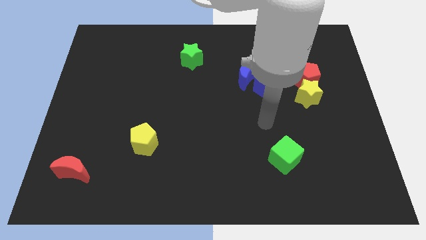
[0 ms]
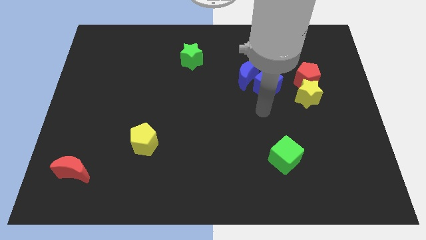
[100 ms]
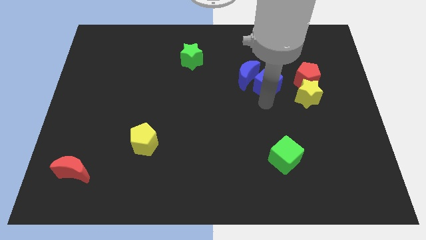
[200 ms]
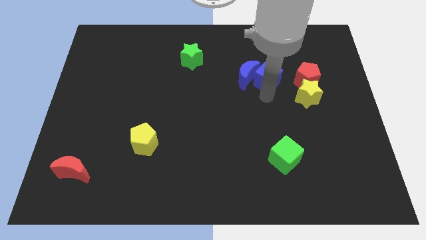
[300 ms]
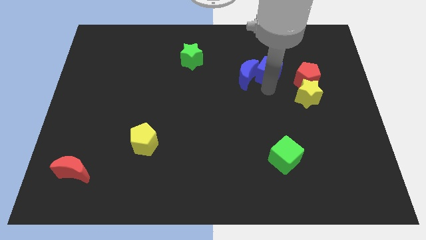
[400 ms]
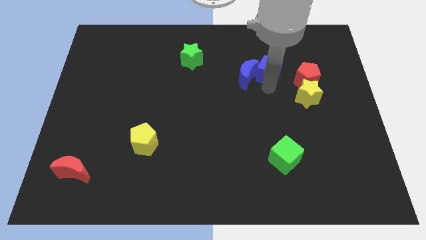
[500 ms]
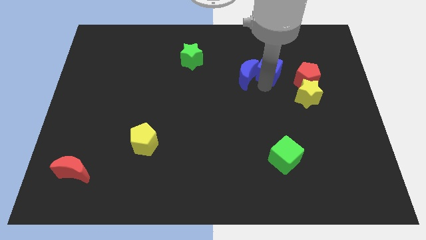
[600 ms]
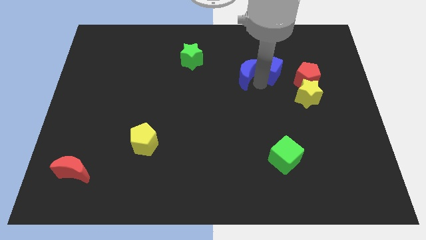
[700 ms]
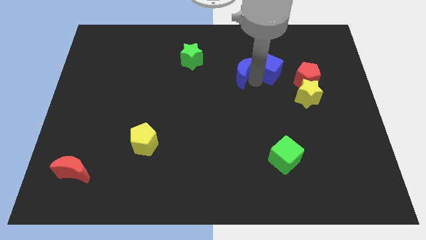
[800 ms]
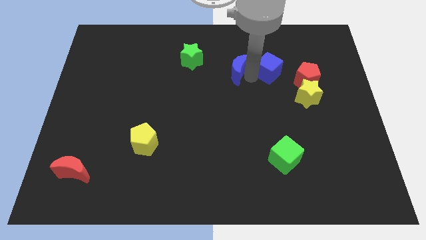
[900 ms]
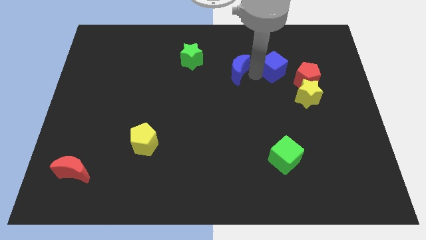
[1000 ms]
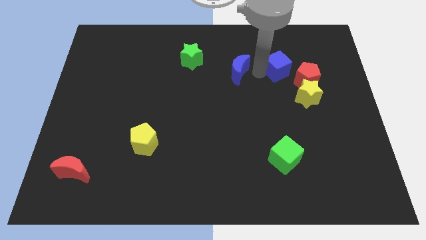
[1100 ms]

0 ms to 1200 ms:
move the blue moon away from the blue cube

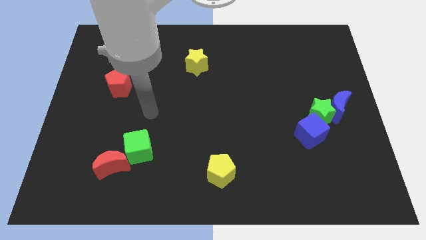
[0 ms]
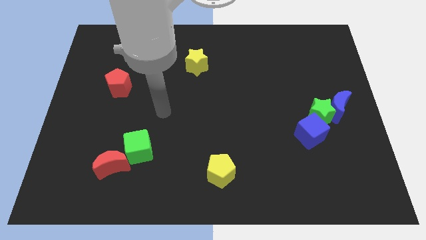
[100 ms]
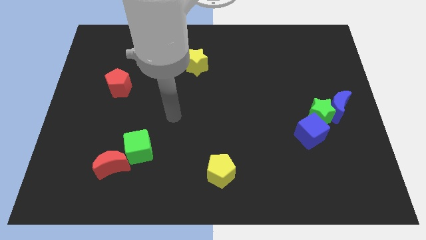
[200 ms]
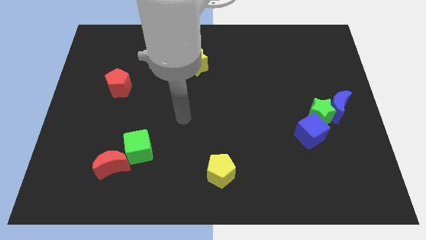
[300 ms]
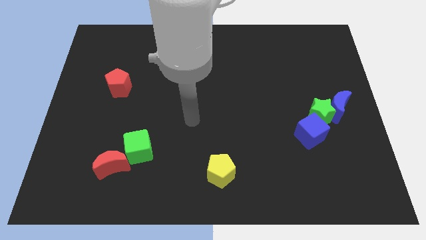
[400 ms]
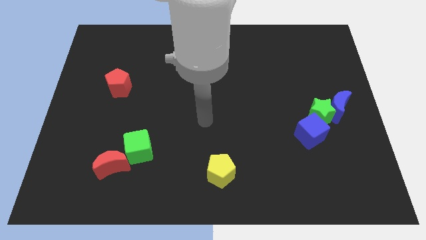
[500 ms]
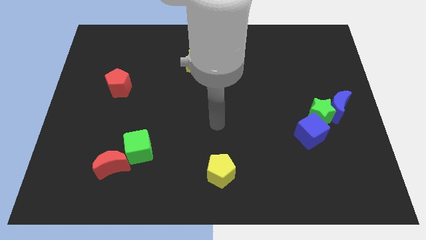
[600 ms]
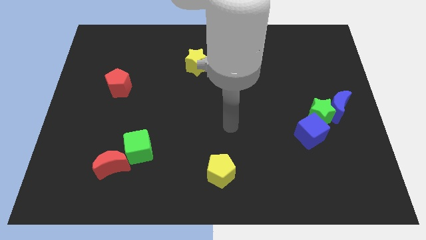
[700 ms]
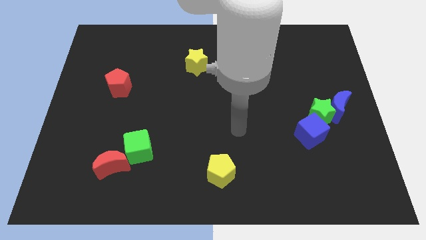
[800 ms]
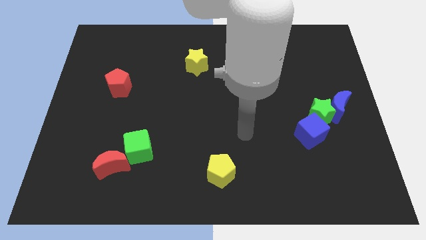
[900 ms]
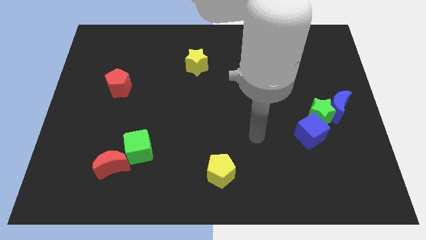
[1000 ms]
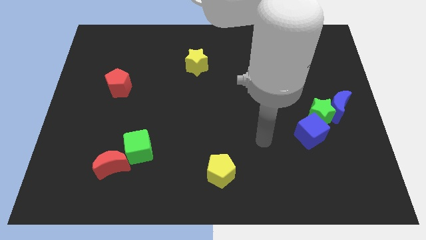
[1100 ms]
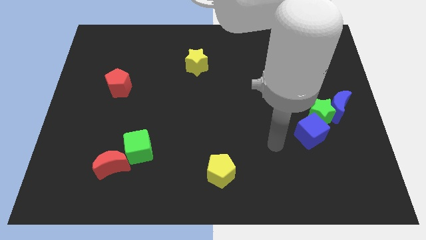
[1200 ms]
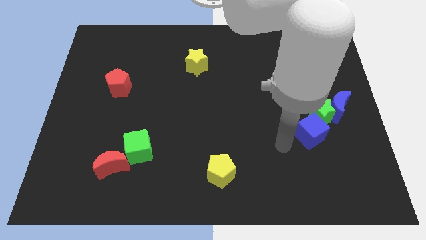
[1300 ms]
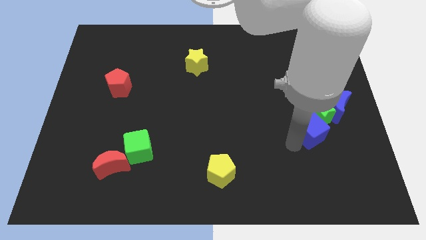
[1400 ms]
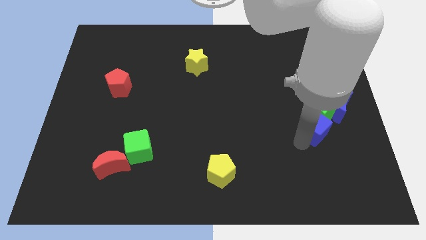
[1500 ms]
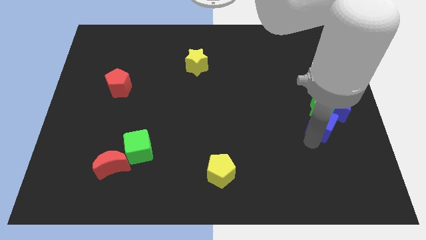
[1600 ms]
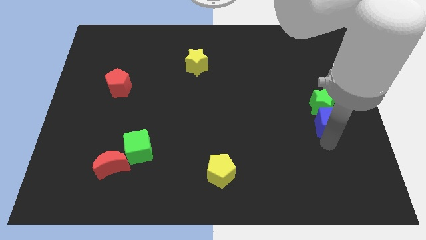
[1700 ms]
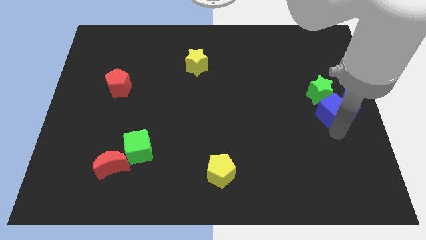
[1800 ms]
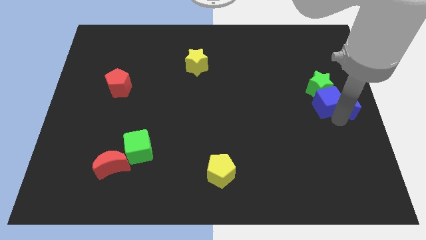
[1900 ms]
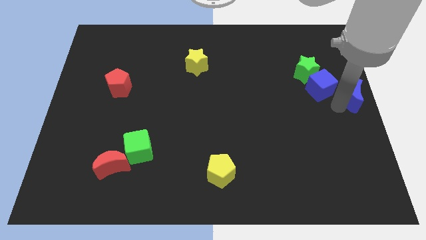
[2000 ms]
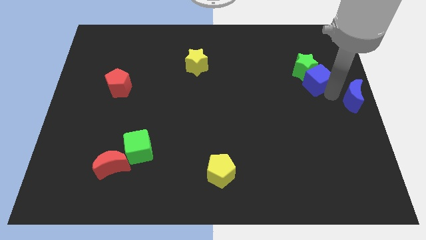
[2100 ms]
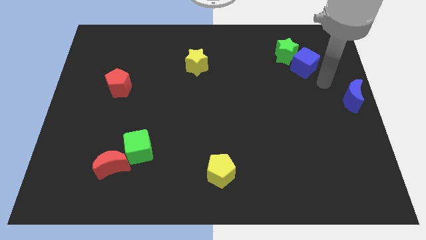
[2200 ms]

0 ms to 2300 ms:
pull the green star apart from the blue moon and blue cube

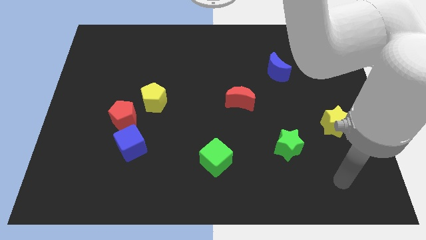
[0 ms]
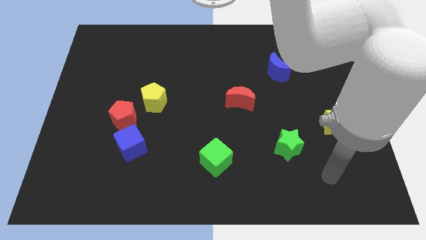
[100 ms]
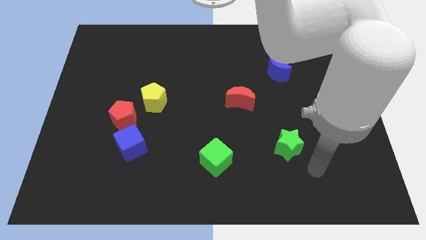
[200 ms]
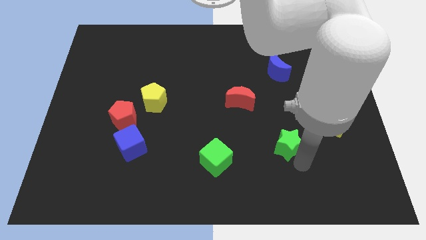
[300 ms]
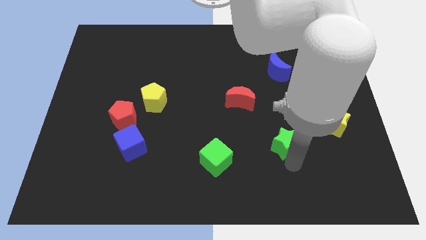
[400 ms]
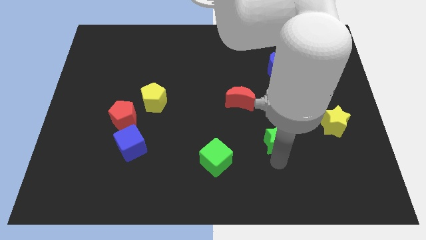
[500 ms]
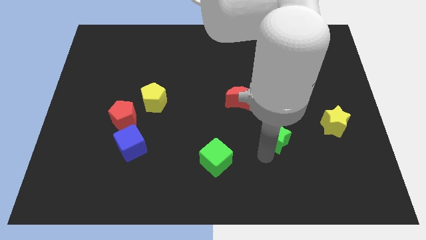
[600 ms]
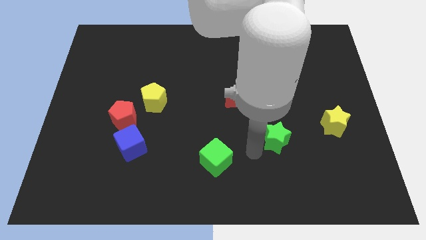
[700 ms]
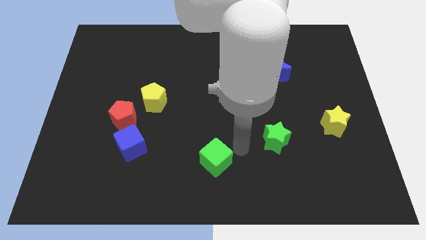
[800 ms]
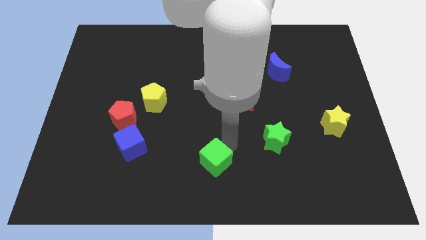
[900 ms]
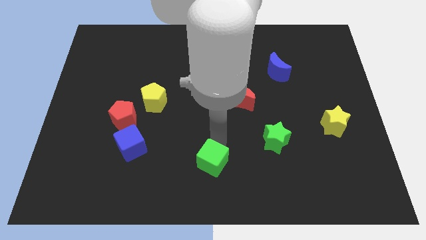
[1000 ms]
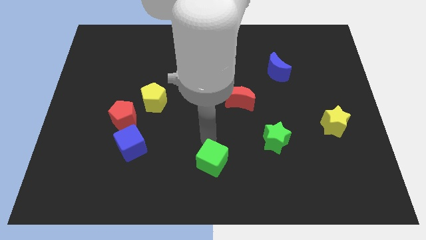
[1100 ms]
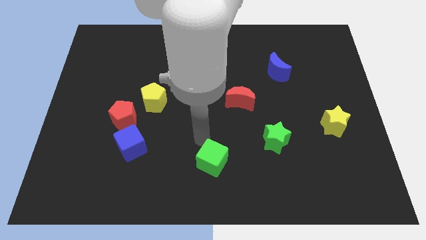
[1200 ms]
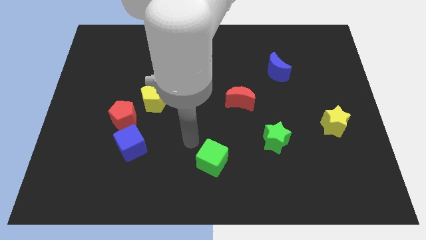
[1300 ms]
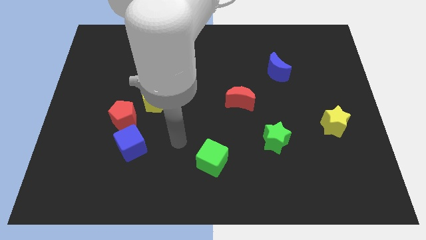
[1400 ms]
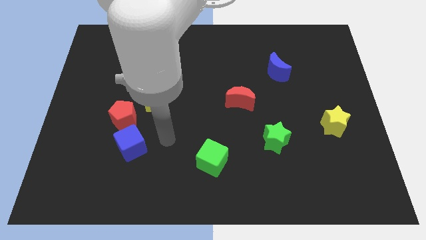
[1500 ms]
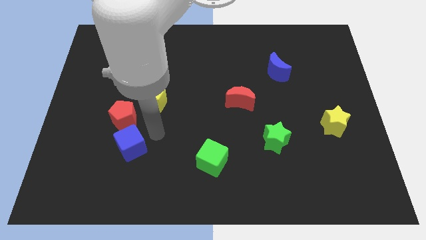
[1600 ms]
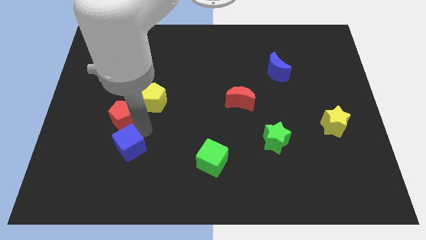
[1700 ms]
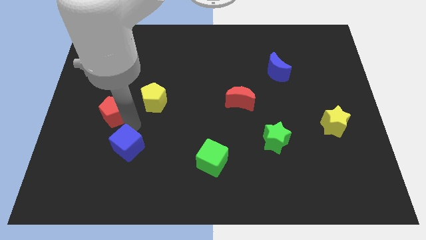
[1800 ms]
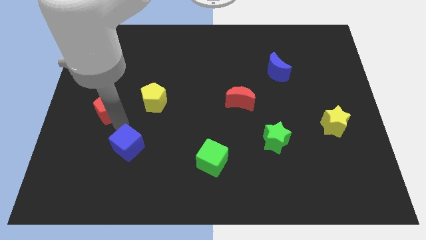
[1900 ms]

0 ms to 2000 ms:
separate the blue cube from the red pentagon

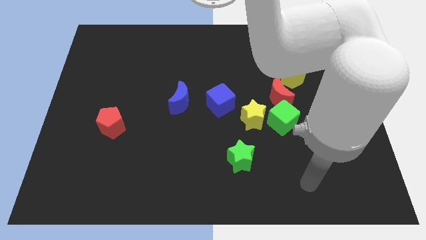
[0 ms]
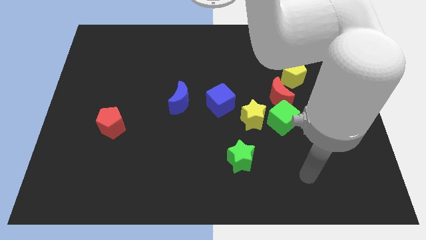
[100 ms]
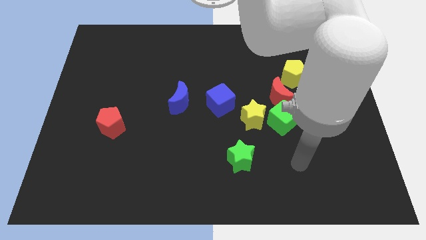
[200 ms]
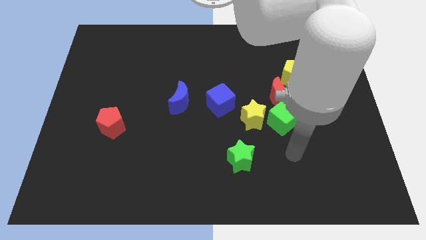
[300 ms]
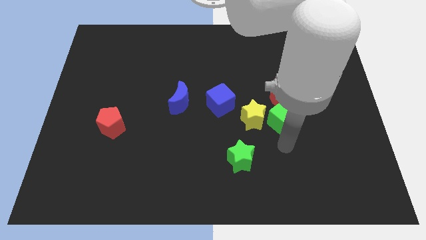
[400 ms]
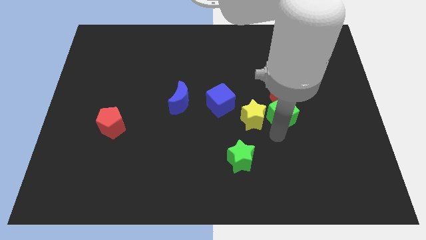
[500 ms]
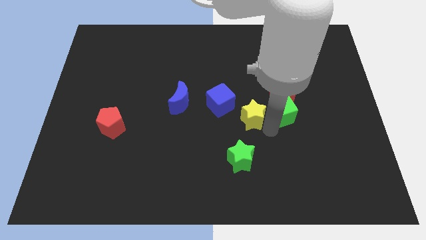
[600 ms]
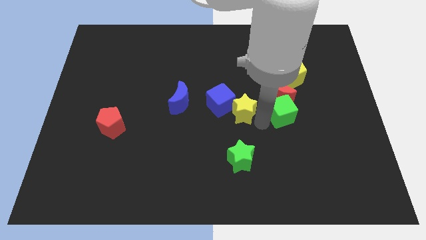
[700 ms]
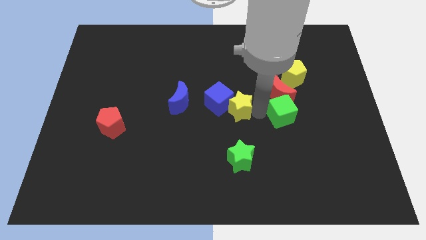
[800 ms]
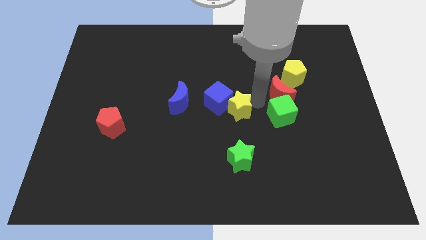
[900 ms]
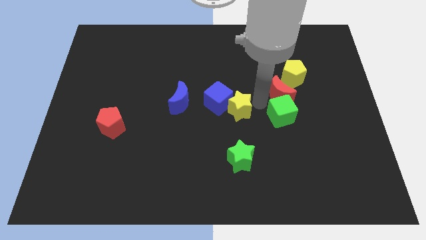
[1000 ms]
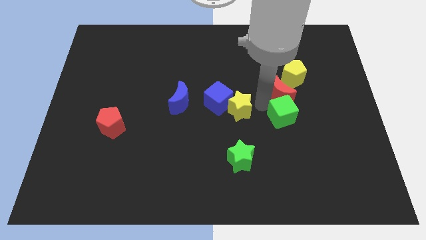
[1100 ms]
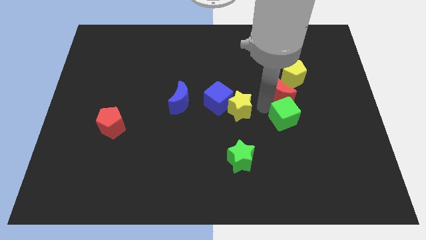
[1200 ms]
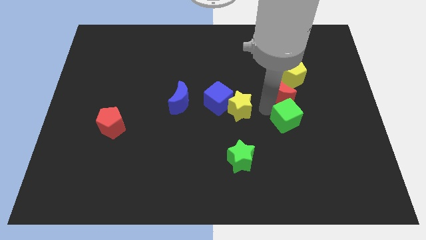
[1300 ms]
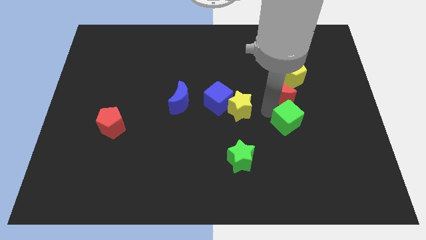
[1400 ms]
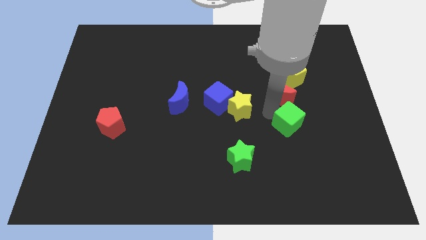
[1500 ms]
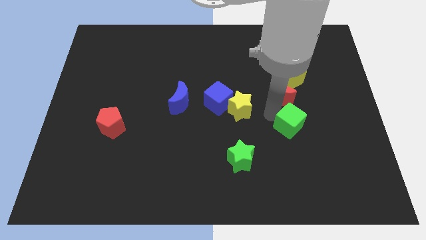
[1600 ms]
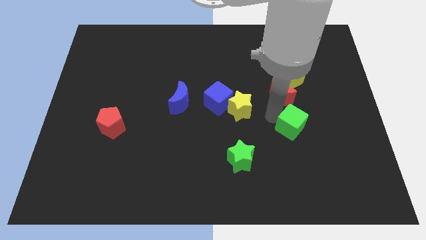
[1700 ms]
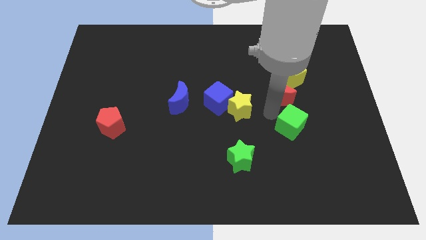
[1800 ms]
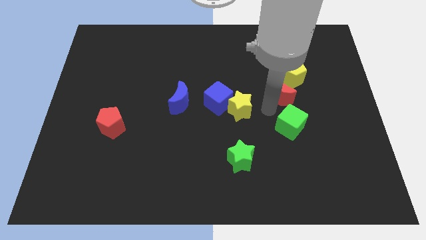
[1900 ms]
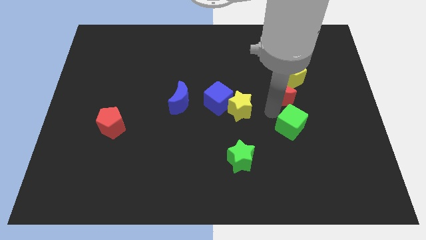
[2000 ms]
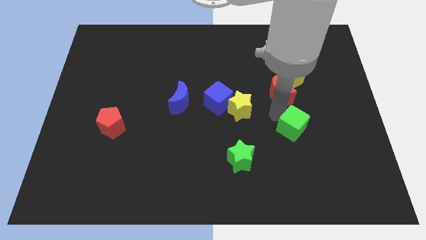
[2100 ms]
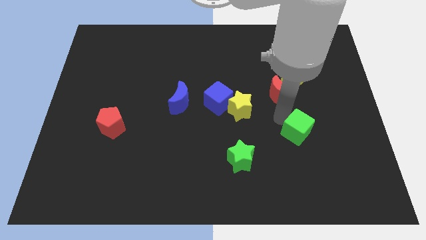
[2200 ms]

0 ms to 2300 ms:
separate the green cube from the red moon and yellow star

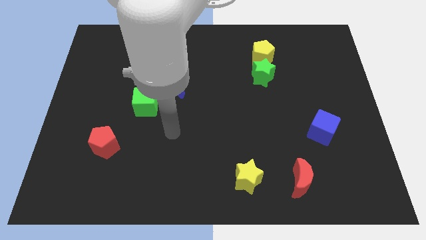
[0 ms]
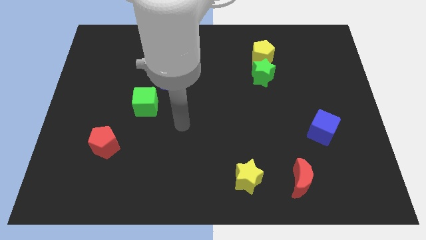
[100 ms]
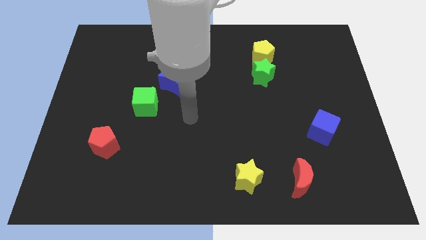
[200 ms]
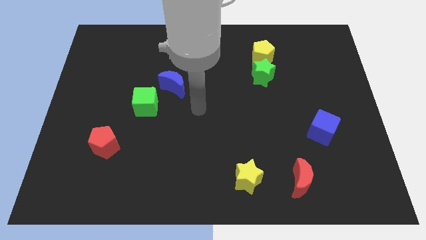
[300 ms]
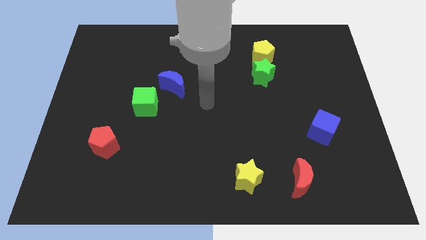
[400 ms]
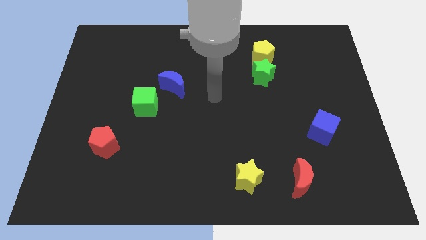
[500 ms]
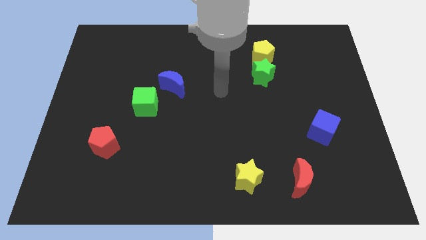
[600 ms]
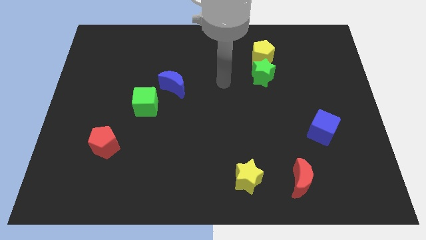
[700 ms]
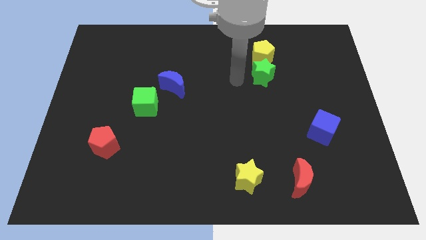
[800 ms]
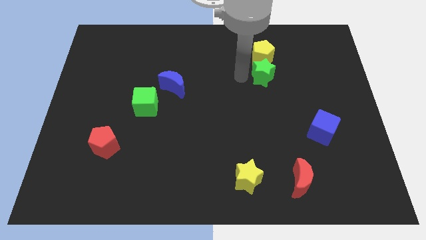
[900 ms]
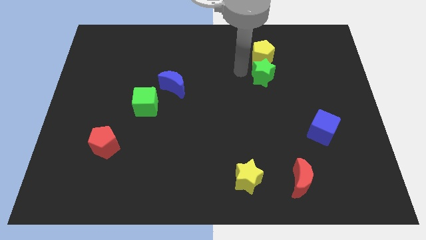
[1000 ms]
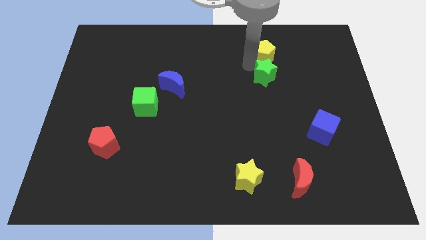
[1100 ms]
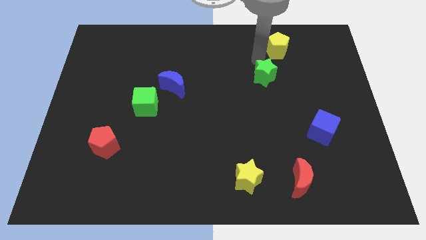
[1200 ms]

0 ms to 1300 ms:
pull the green star apart from the yellow pentagon

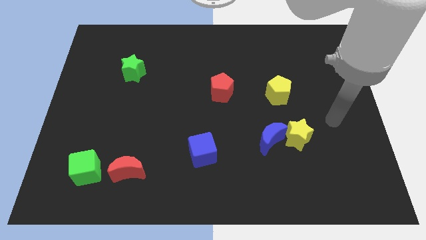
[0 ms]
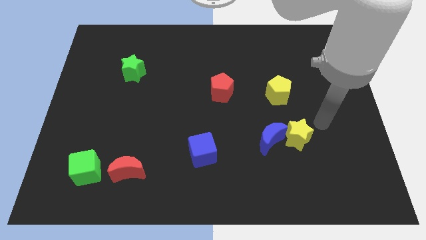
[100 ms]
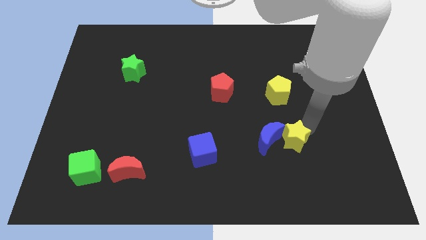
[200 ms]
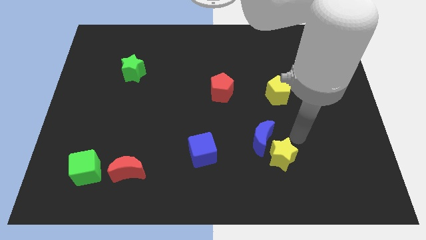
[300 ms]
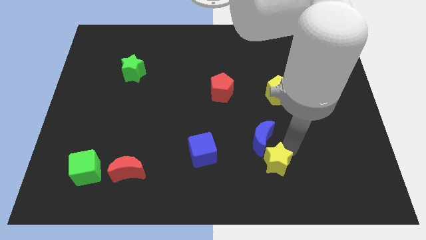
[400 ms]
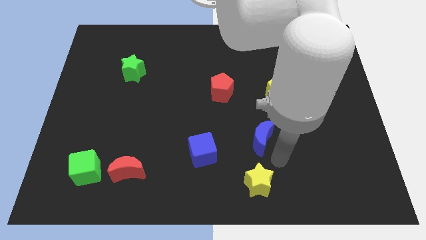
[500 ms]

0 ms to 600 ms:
separate the blue moon from the yellow star
